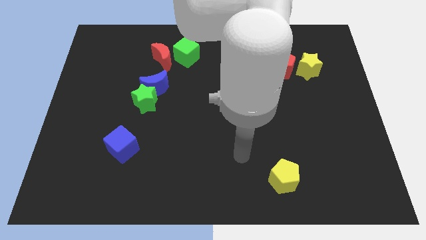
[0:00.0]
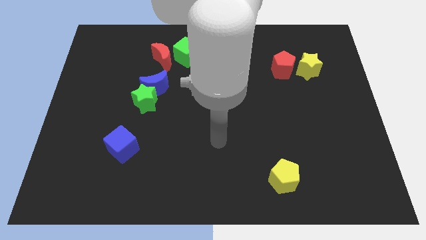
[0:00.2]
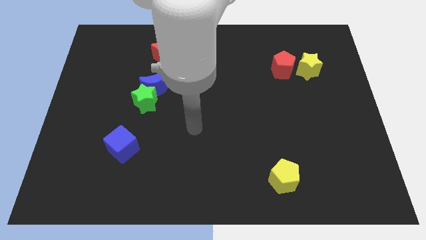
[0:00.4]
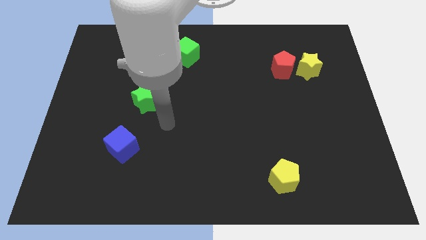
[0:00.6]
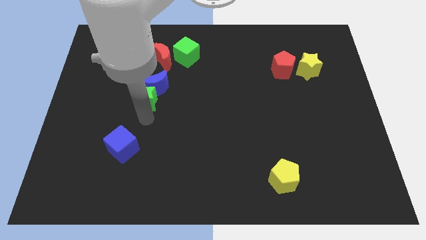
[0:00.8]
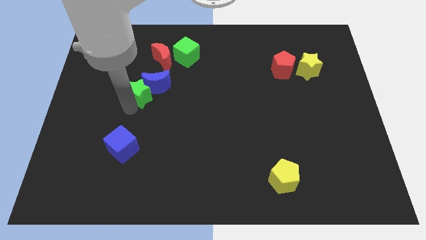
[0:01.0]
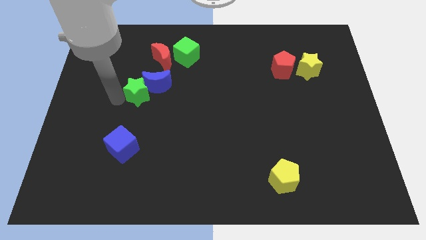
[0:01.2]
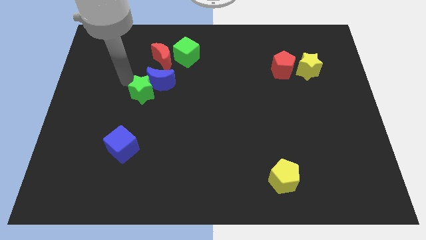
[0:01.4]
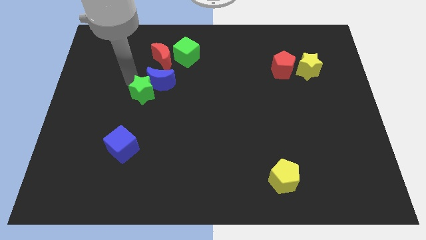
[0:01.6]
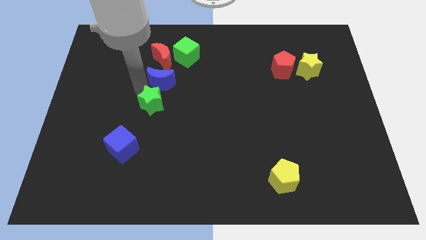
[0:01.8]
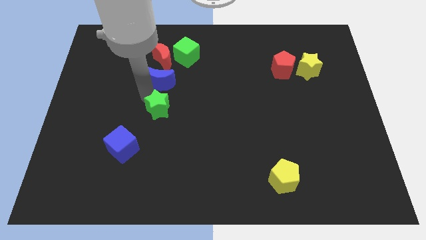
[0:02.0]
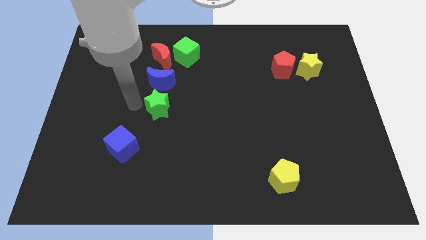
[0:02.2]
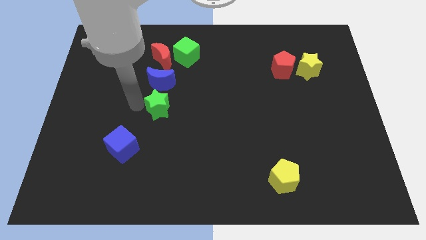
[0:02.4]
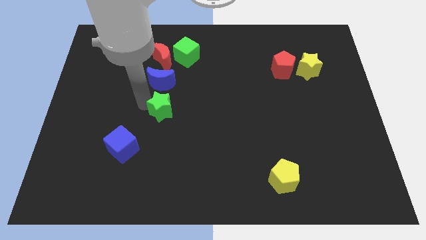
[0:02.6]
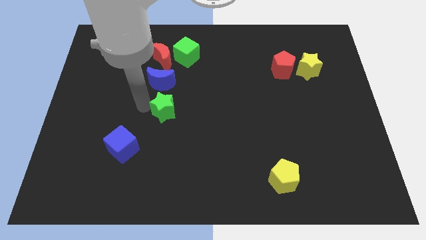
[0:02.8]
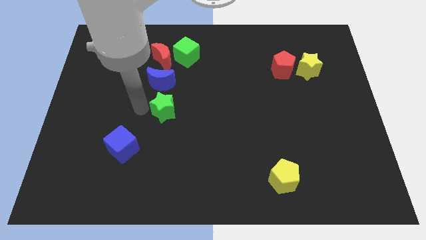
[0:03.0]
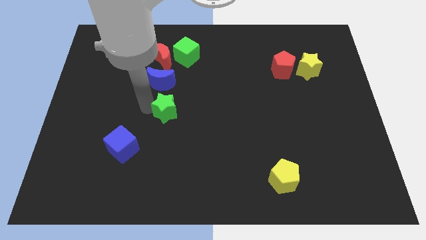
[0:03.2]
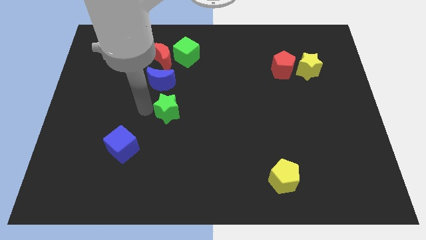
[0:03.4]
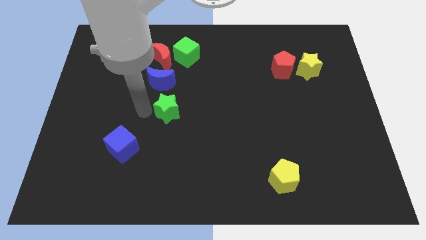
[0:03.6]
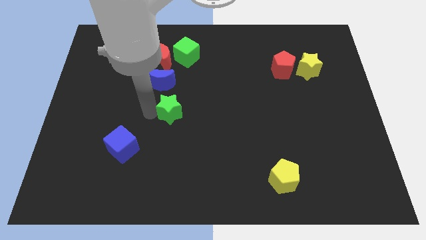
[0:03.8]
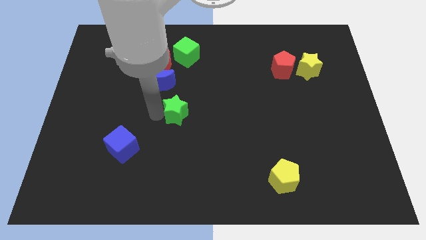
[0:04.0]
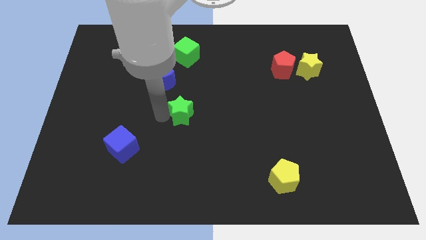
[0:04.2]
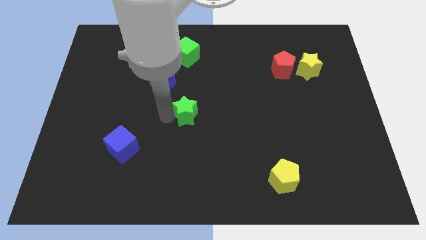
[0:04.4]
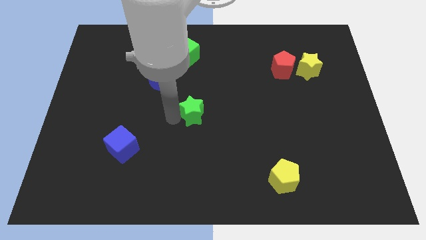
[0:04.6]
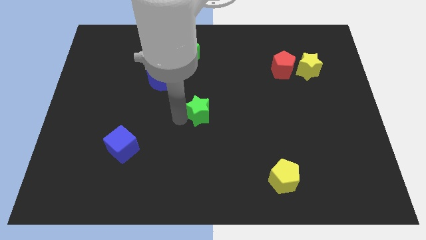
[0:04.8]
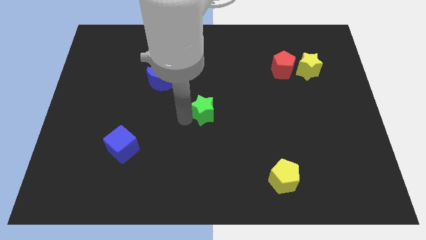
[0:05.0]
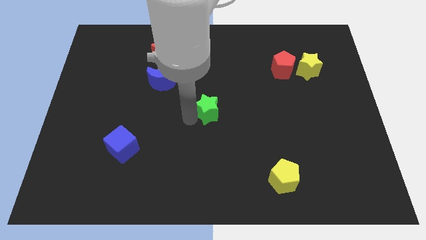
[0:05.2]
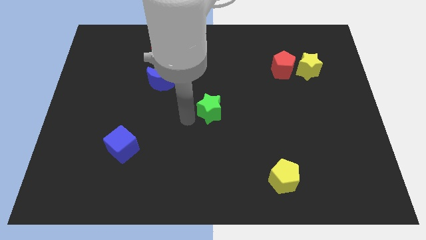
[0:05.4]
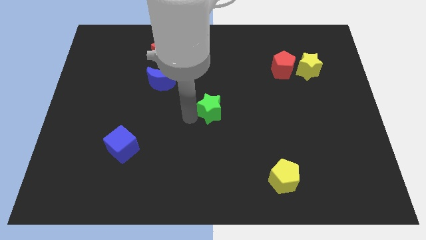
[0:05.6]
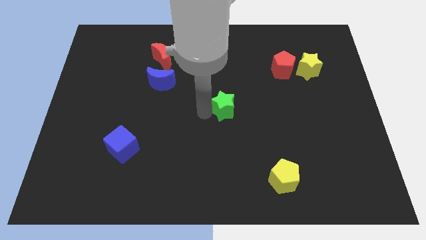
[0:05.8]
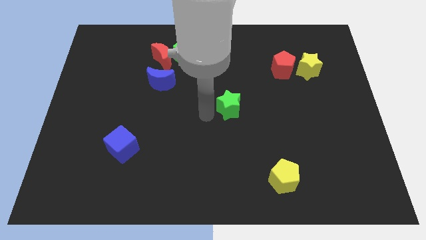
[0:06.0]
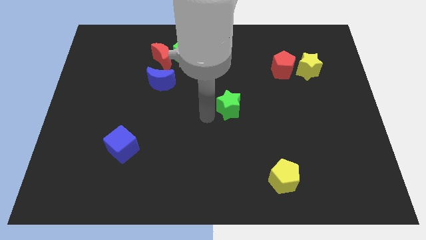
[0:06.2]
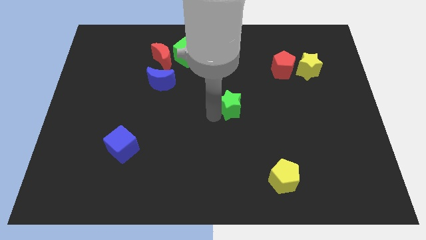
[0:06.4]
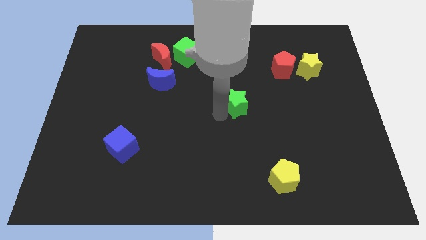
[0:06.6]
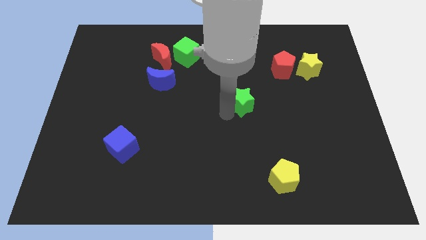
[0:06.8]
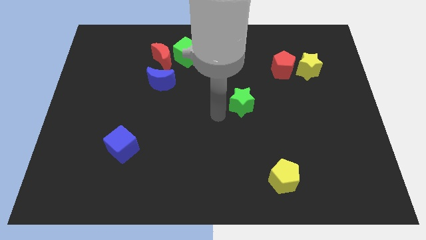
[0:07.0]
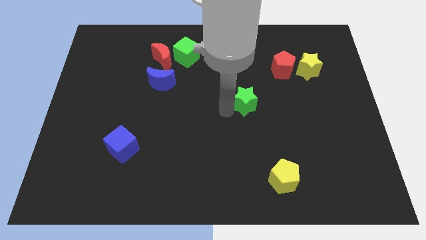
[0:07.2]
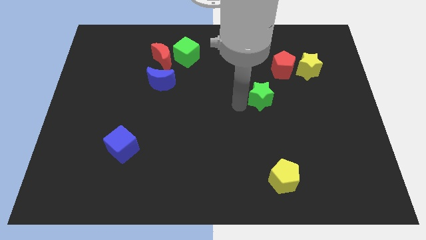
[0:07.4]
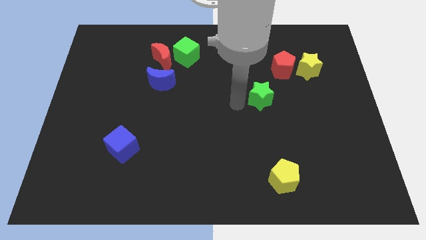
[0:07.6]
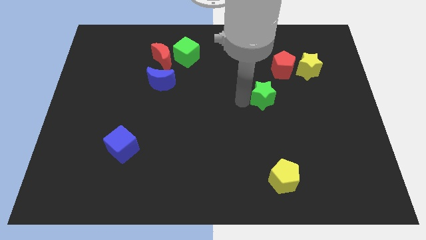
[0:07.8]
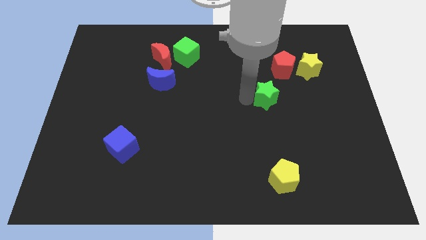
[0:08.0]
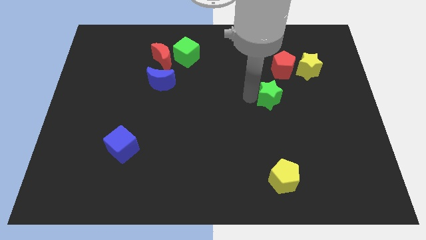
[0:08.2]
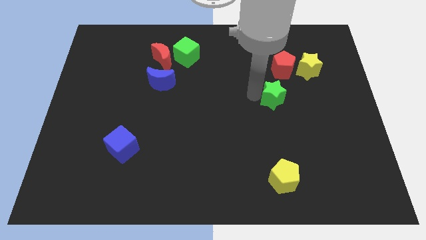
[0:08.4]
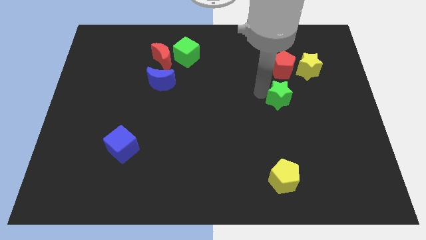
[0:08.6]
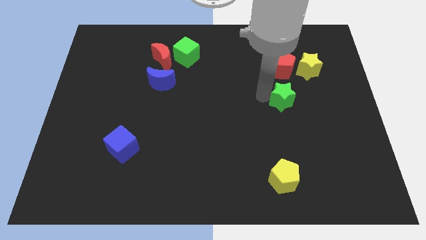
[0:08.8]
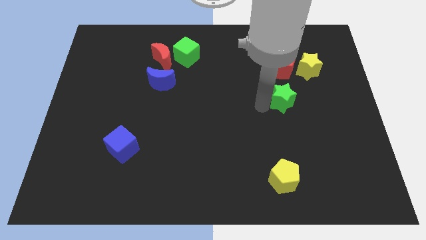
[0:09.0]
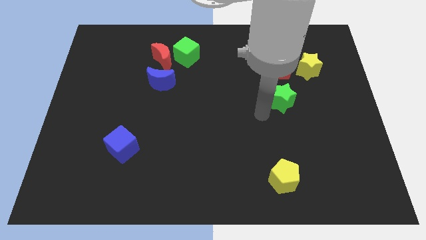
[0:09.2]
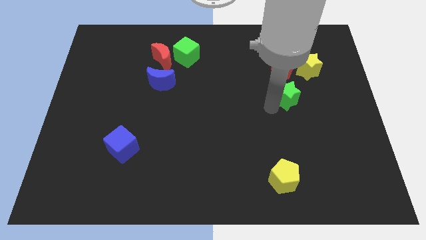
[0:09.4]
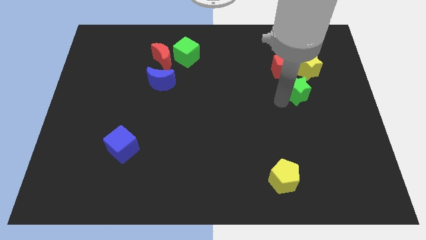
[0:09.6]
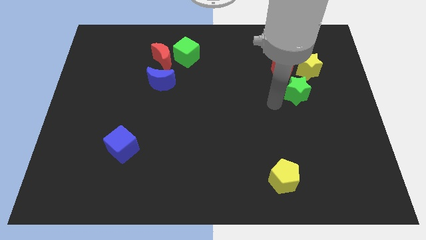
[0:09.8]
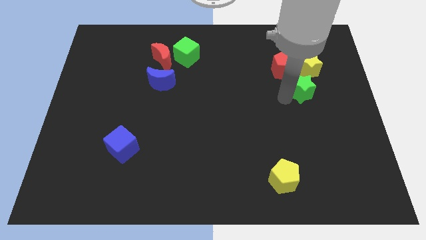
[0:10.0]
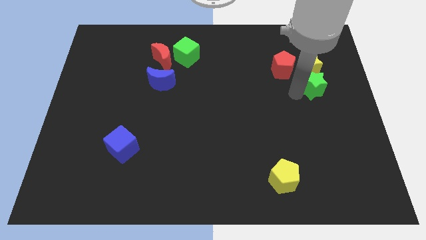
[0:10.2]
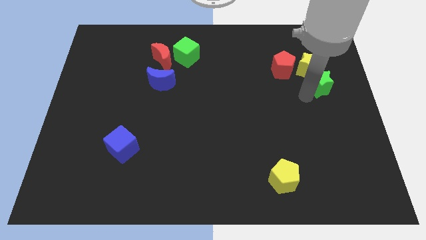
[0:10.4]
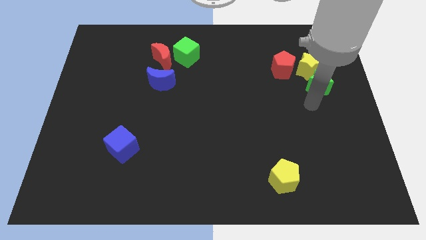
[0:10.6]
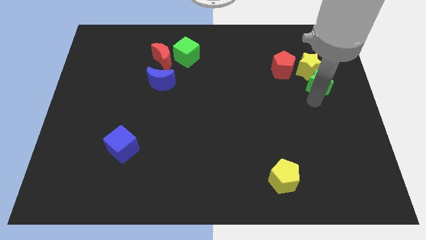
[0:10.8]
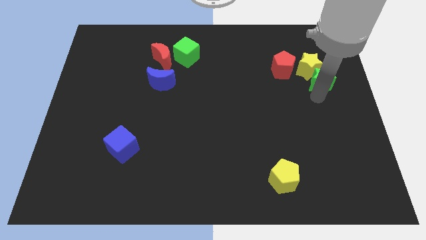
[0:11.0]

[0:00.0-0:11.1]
put the green star to the right side of the red pentagon

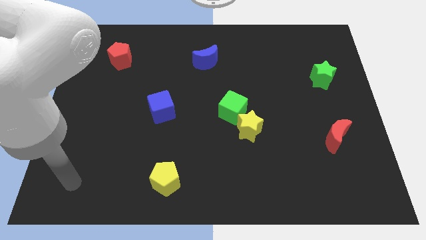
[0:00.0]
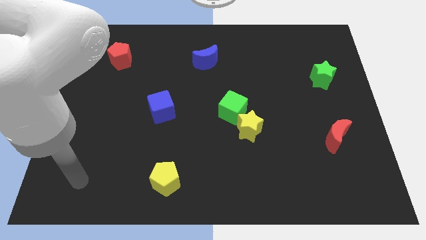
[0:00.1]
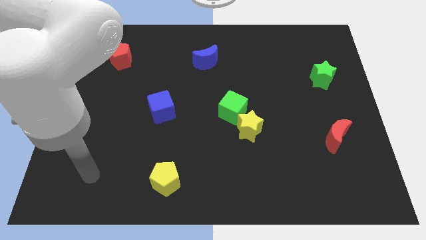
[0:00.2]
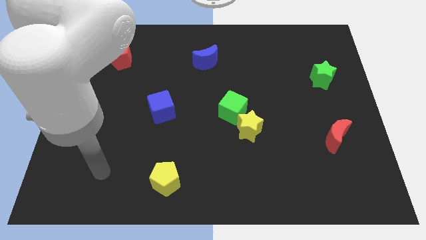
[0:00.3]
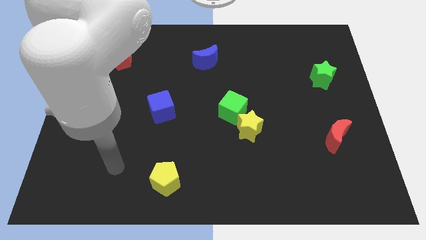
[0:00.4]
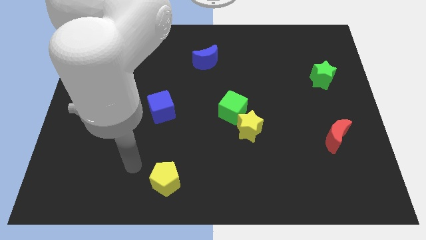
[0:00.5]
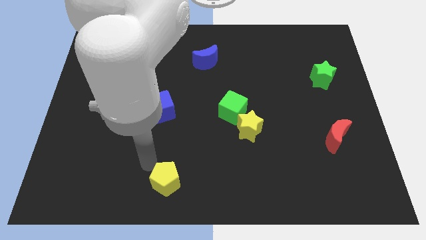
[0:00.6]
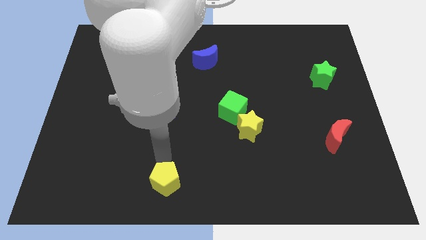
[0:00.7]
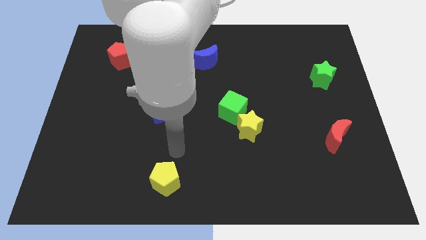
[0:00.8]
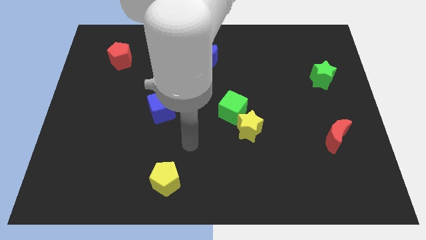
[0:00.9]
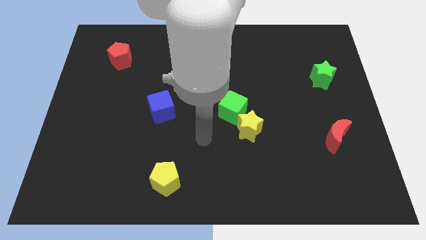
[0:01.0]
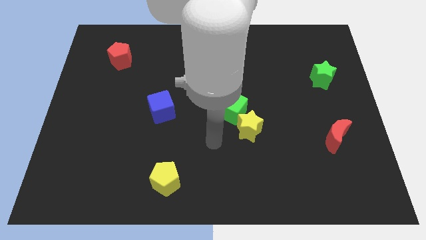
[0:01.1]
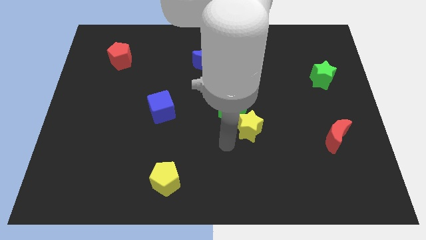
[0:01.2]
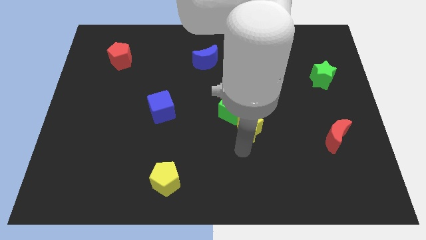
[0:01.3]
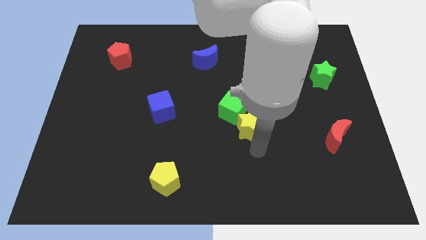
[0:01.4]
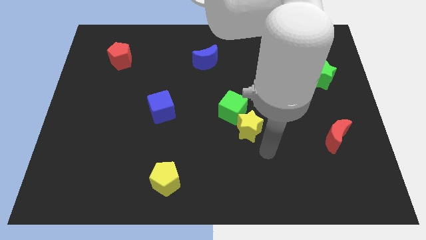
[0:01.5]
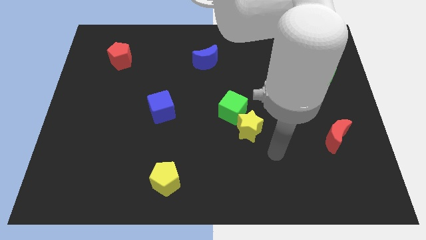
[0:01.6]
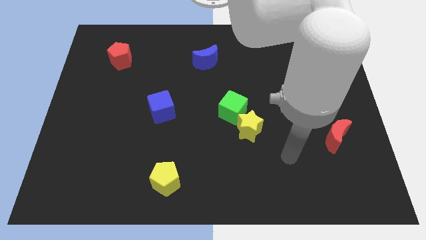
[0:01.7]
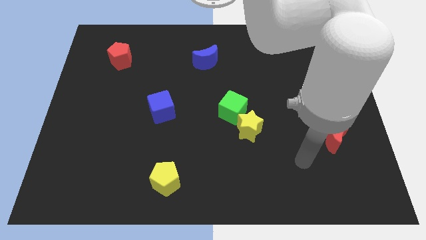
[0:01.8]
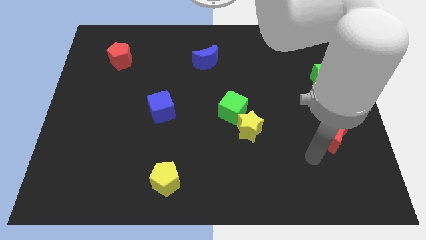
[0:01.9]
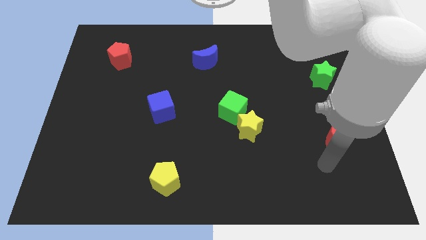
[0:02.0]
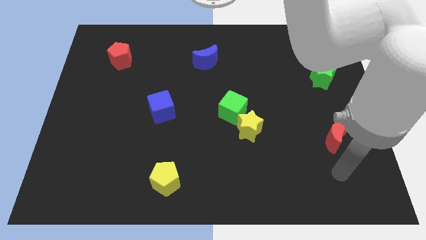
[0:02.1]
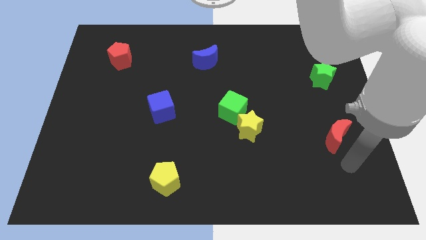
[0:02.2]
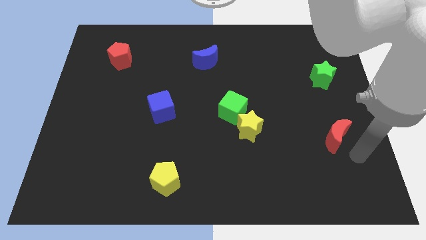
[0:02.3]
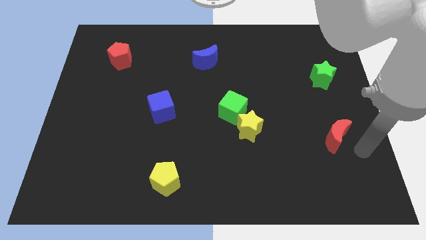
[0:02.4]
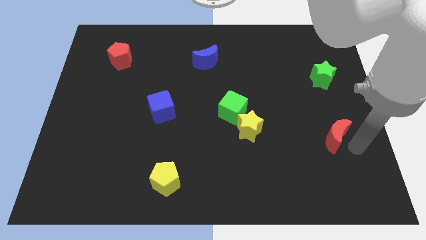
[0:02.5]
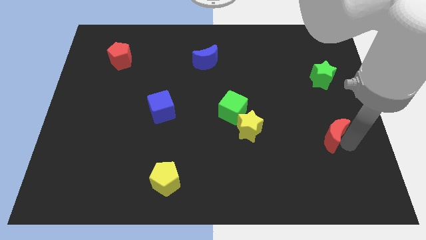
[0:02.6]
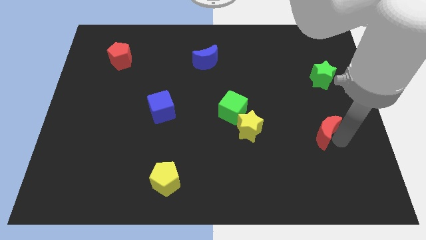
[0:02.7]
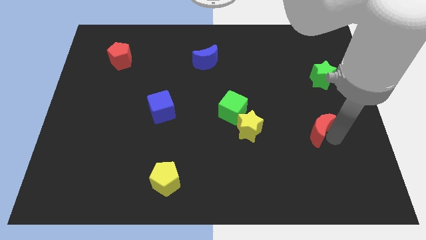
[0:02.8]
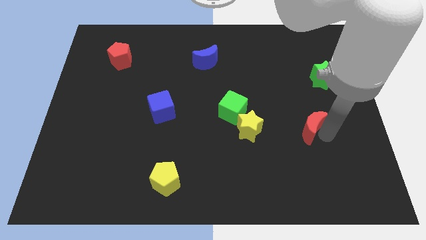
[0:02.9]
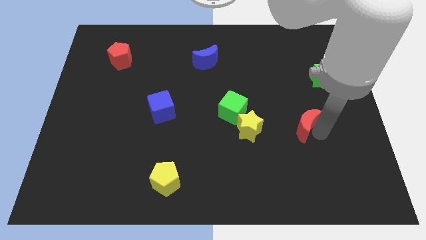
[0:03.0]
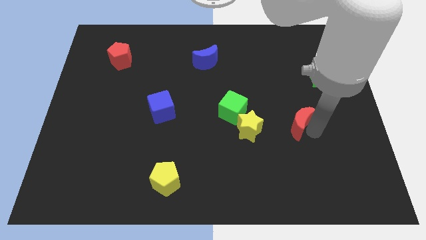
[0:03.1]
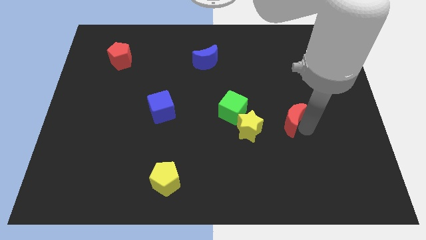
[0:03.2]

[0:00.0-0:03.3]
slide the red moon to the right of the green cube
